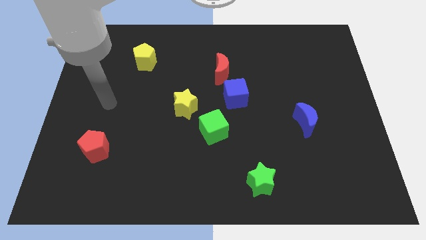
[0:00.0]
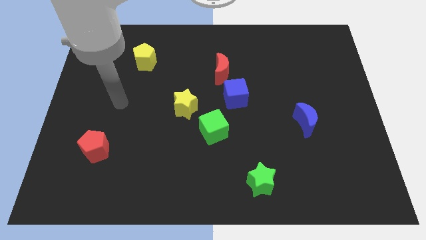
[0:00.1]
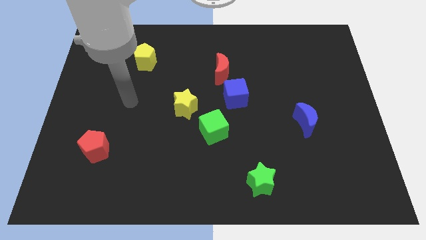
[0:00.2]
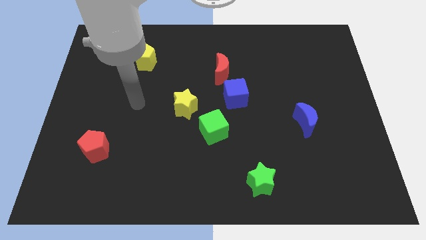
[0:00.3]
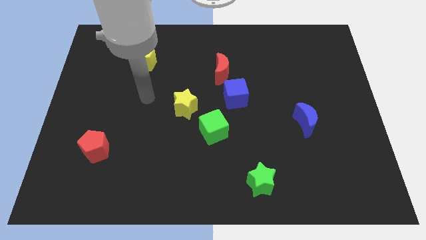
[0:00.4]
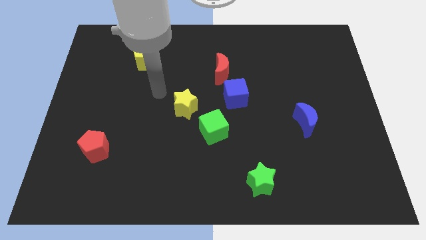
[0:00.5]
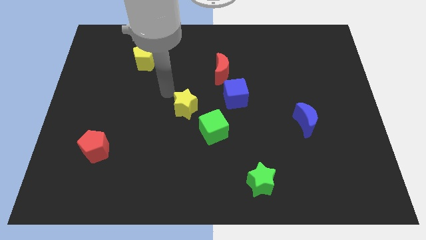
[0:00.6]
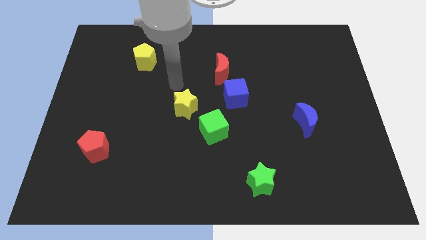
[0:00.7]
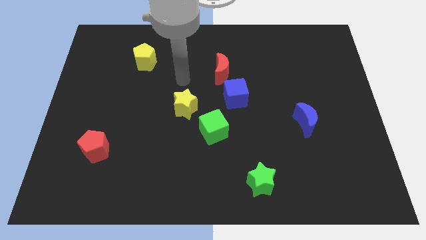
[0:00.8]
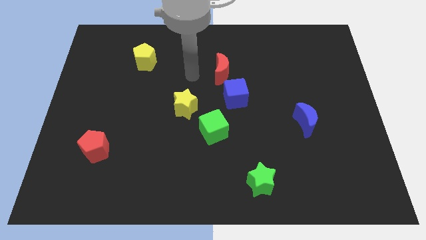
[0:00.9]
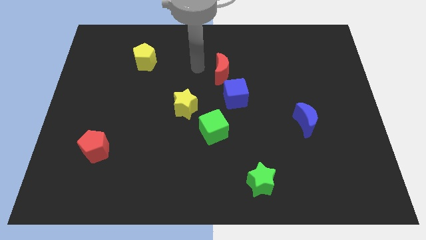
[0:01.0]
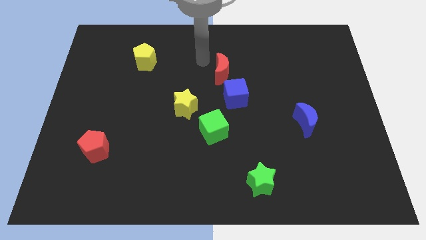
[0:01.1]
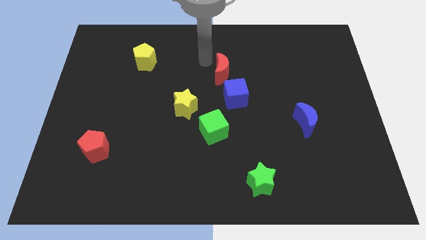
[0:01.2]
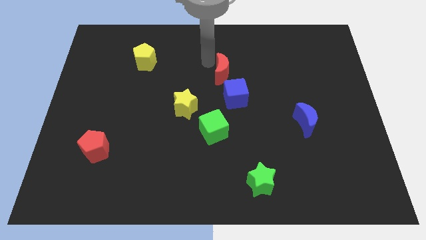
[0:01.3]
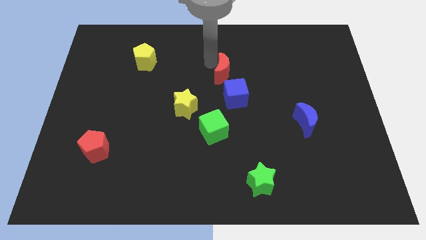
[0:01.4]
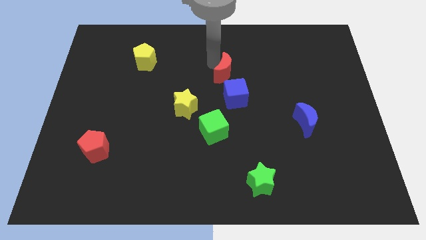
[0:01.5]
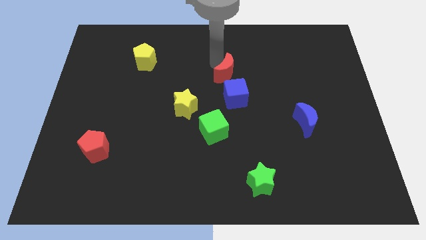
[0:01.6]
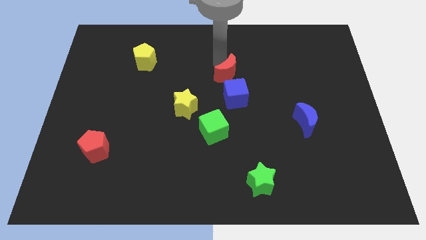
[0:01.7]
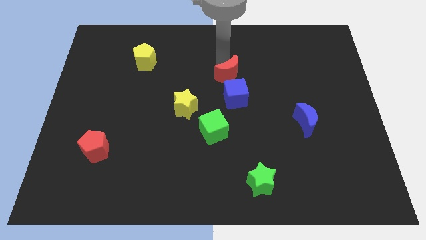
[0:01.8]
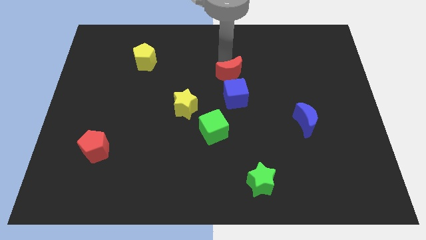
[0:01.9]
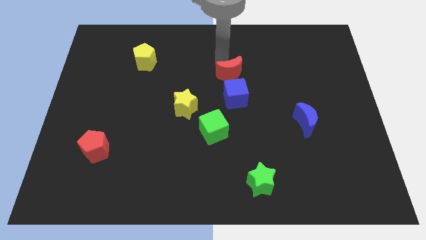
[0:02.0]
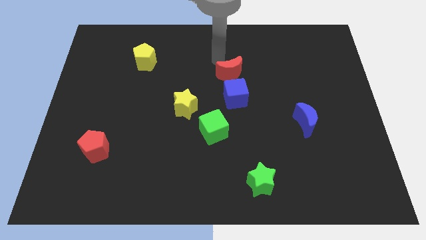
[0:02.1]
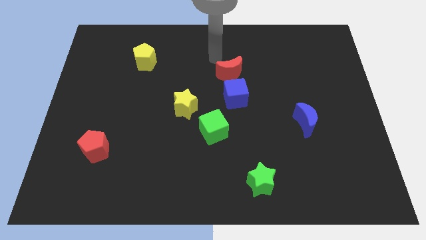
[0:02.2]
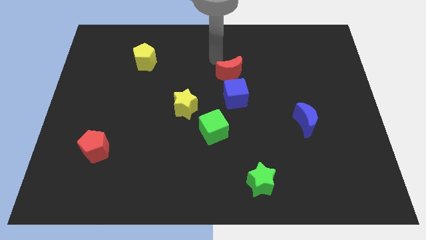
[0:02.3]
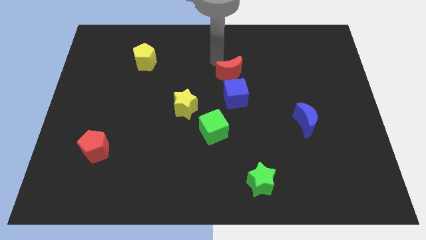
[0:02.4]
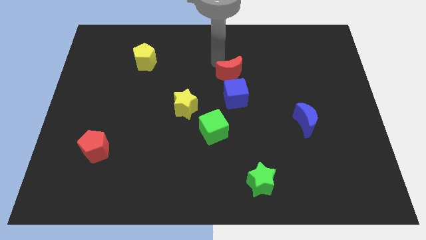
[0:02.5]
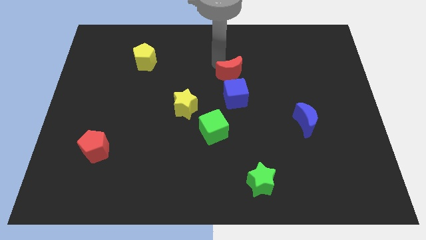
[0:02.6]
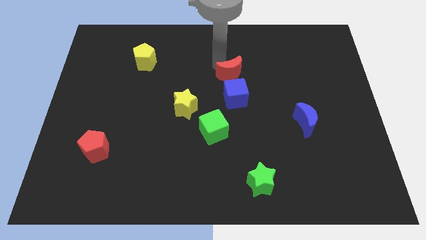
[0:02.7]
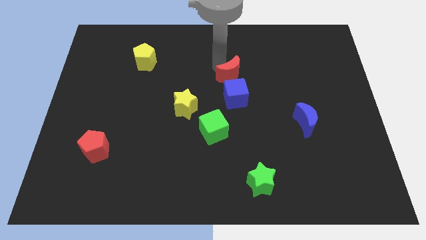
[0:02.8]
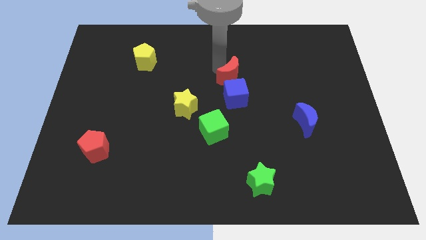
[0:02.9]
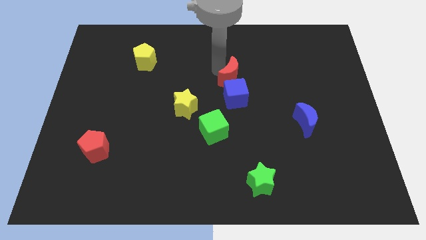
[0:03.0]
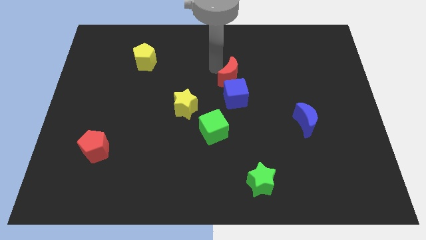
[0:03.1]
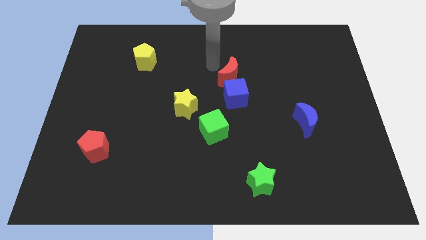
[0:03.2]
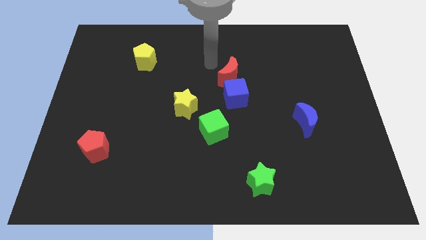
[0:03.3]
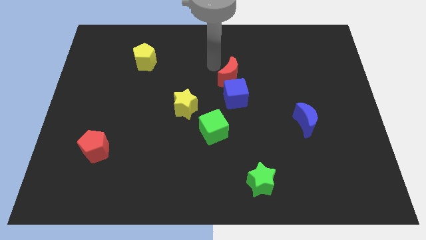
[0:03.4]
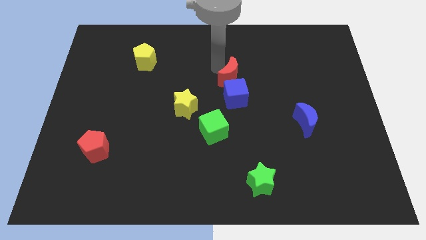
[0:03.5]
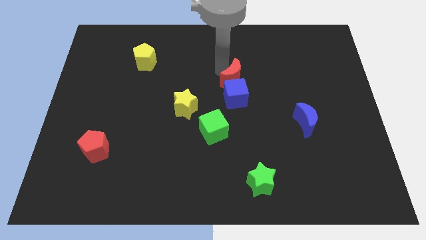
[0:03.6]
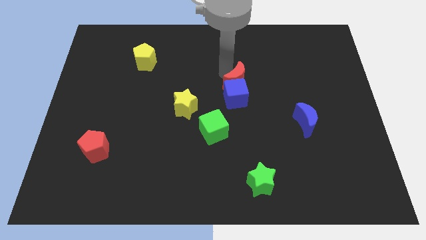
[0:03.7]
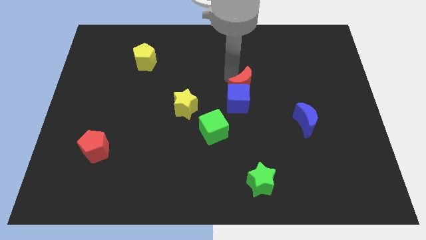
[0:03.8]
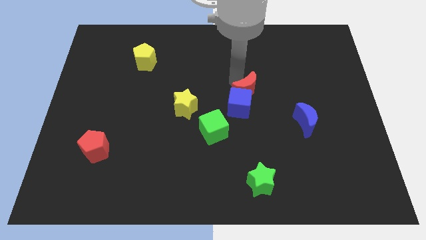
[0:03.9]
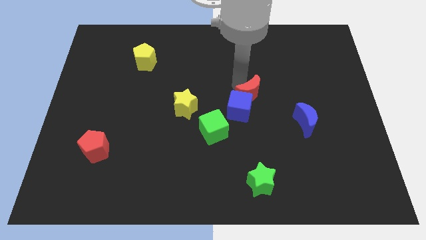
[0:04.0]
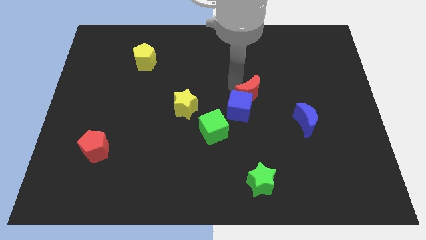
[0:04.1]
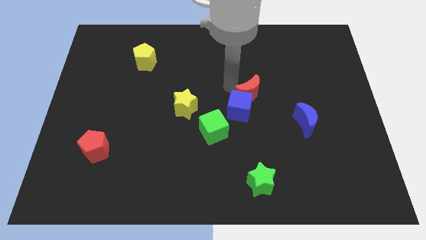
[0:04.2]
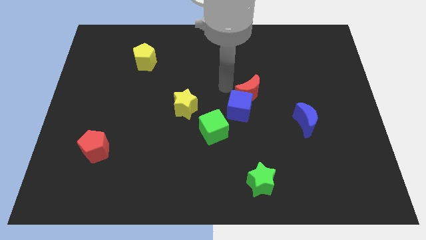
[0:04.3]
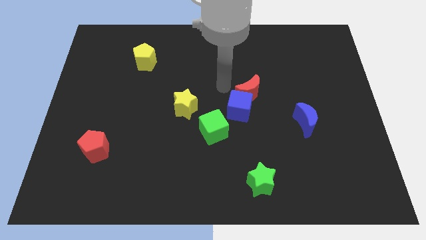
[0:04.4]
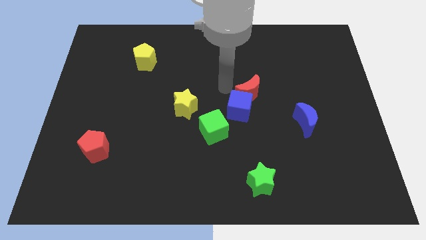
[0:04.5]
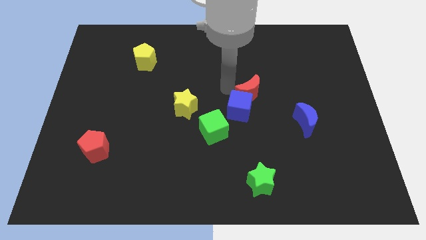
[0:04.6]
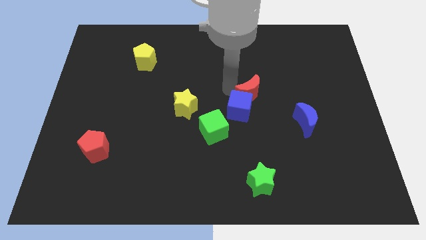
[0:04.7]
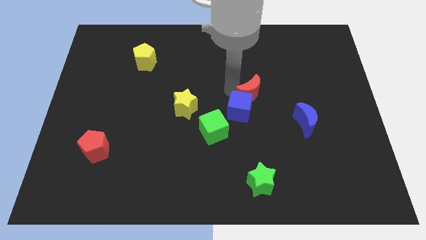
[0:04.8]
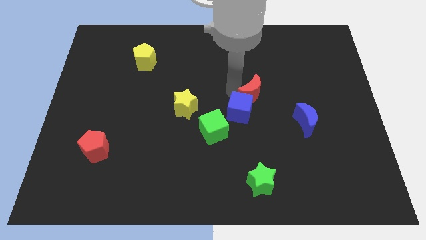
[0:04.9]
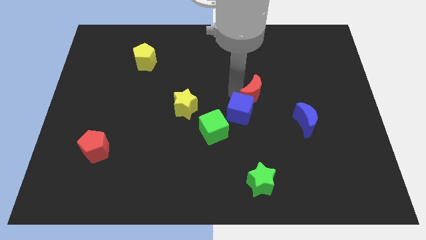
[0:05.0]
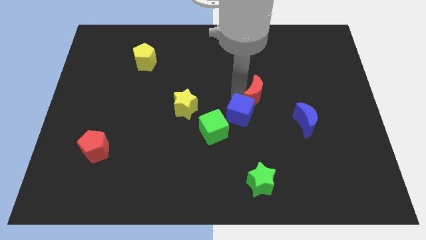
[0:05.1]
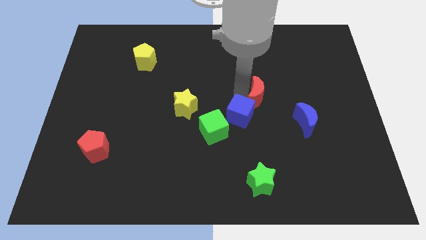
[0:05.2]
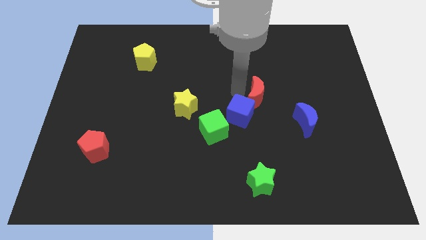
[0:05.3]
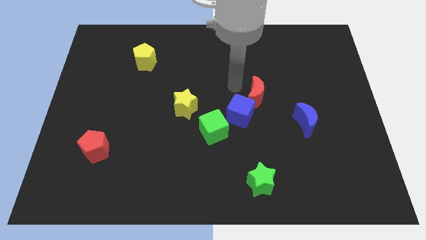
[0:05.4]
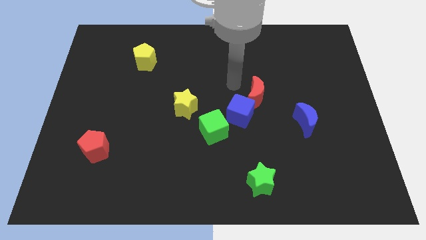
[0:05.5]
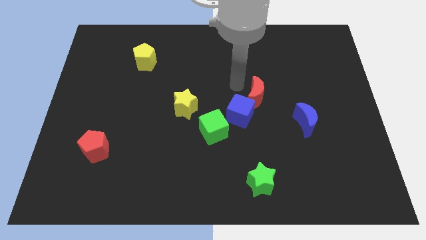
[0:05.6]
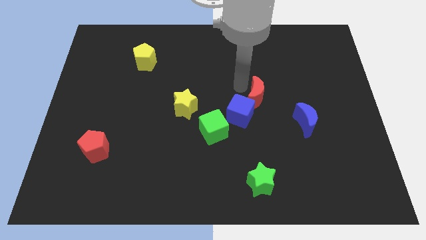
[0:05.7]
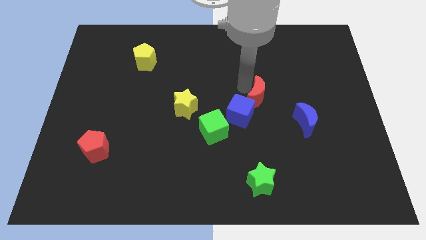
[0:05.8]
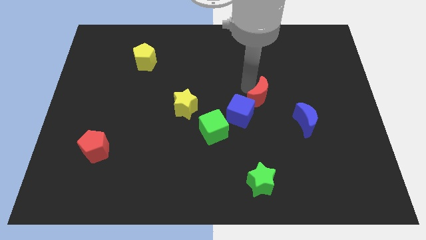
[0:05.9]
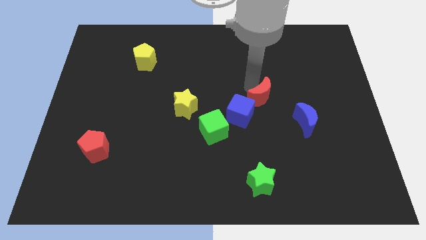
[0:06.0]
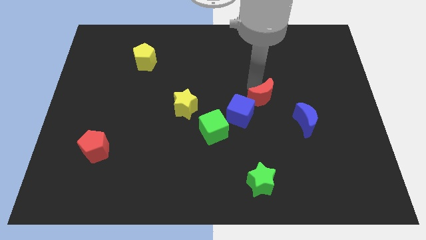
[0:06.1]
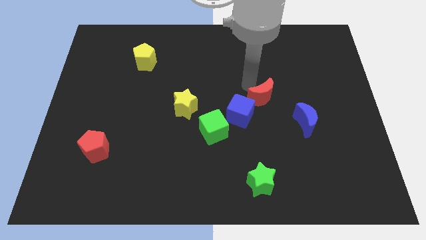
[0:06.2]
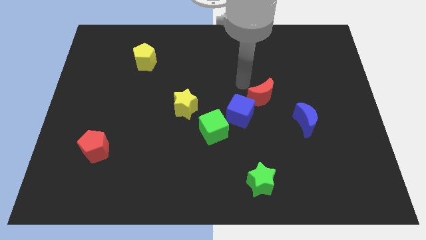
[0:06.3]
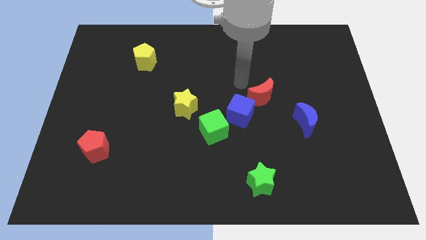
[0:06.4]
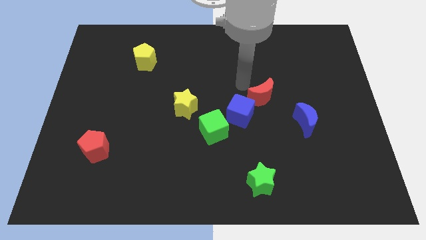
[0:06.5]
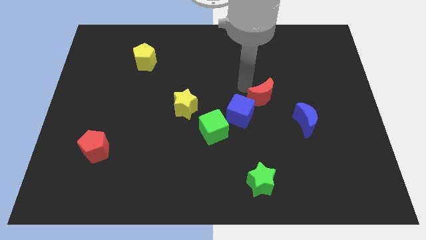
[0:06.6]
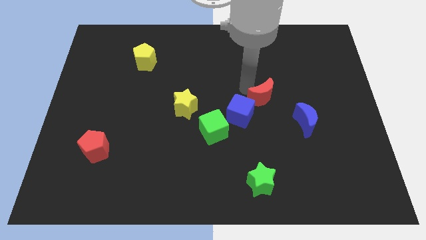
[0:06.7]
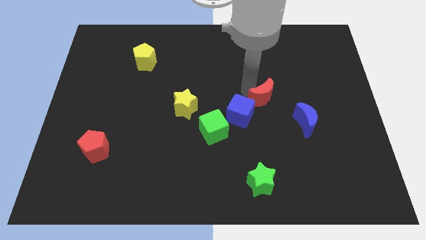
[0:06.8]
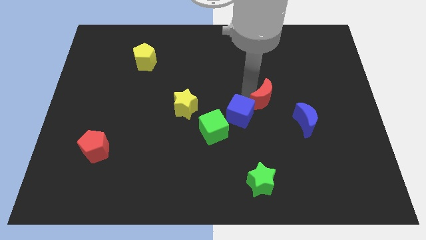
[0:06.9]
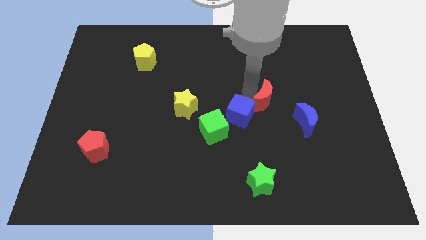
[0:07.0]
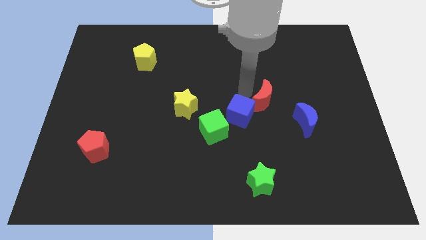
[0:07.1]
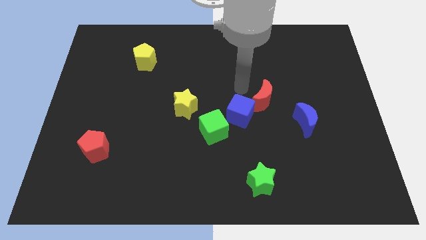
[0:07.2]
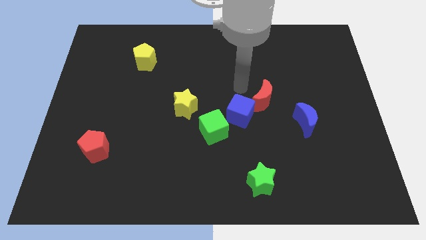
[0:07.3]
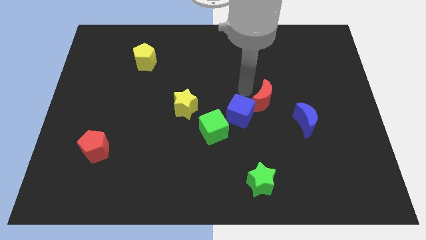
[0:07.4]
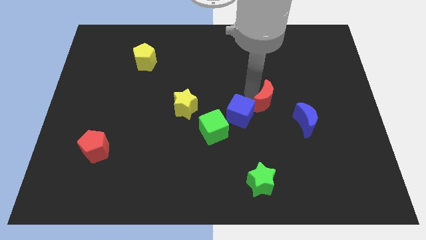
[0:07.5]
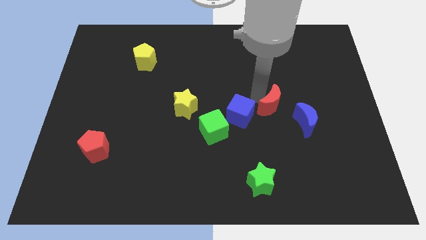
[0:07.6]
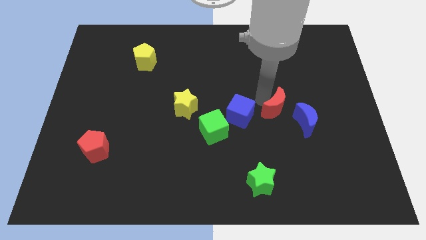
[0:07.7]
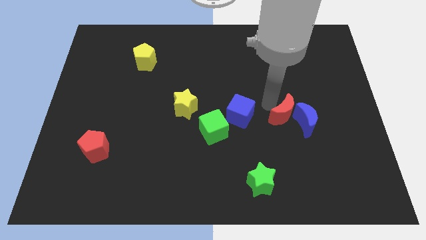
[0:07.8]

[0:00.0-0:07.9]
push the red moon close to the blue moon

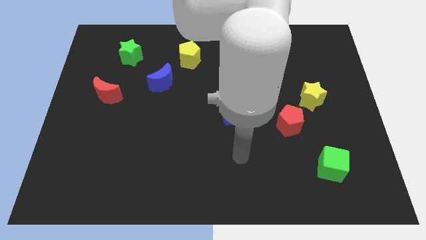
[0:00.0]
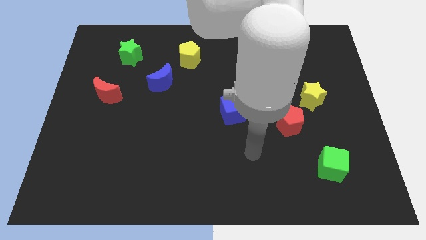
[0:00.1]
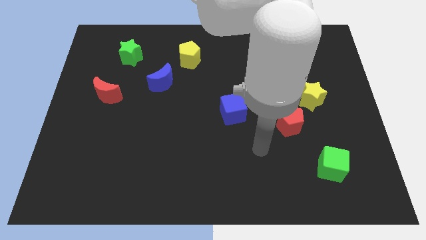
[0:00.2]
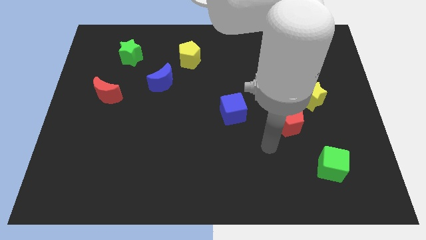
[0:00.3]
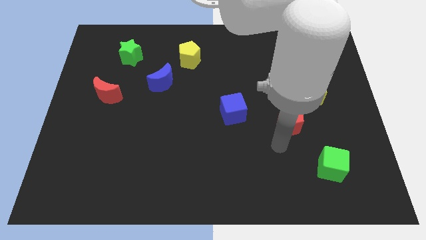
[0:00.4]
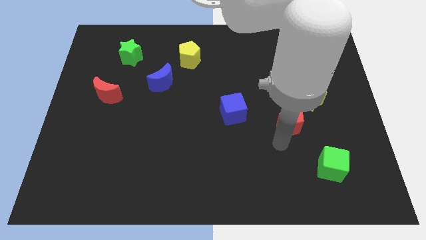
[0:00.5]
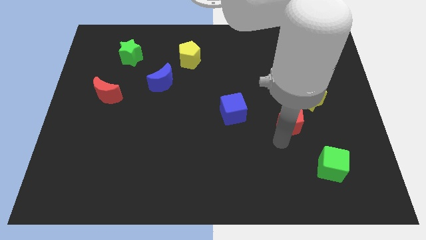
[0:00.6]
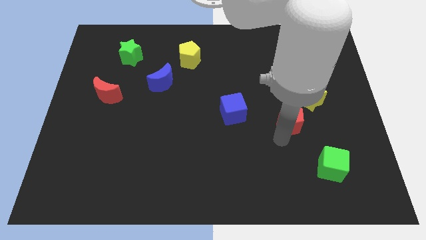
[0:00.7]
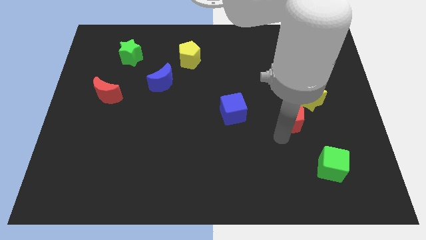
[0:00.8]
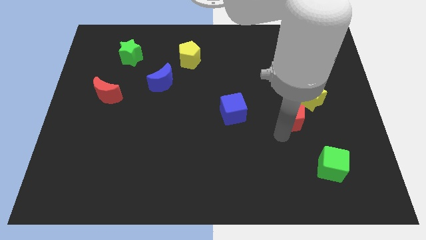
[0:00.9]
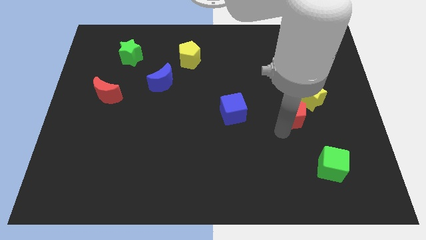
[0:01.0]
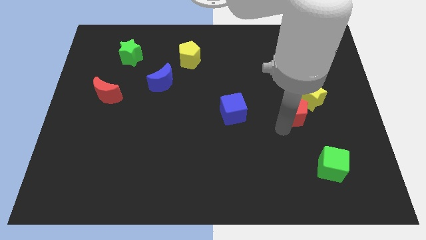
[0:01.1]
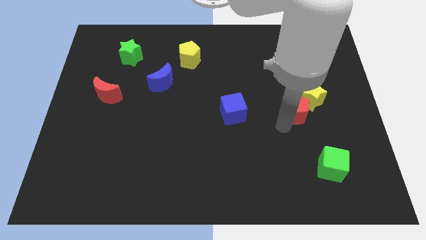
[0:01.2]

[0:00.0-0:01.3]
put the red pentagon next to the yellow star
